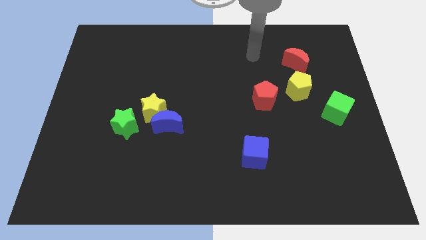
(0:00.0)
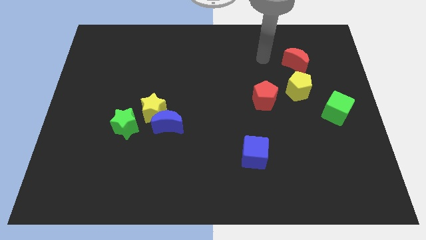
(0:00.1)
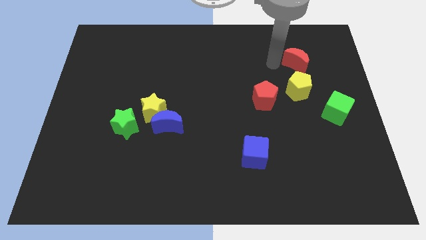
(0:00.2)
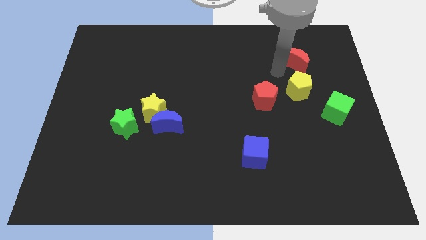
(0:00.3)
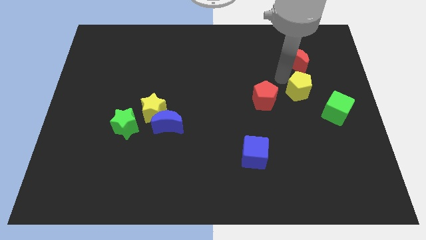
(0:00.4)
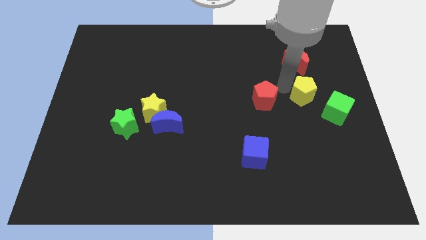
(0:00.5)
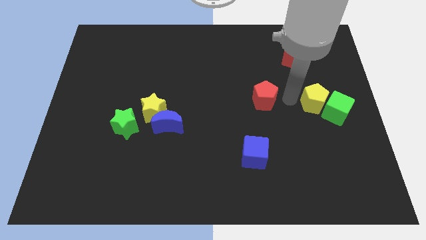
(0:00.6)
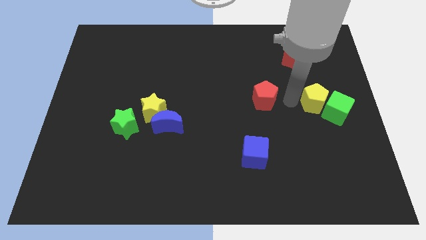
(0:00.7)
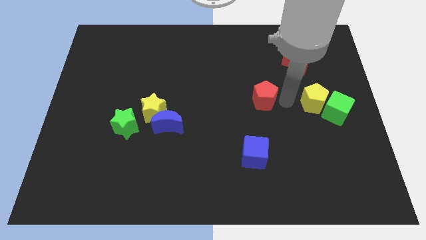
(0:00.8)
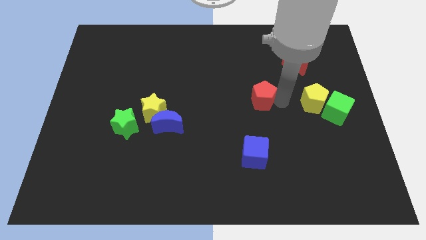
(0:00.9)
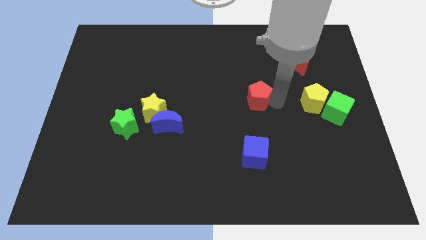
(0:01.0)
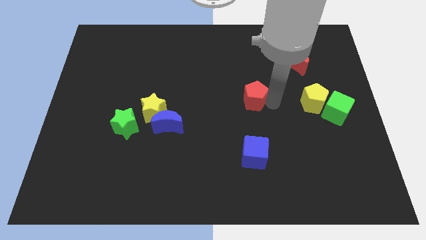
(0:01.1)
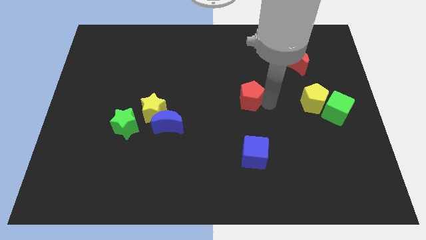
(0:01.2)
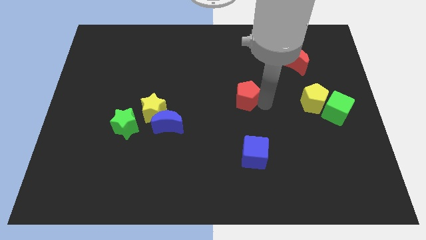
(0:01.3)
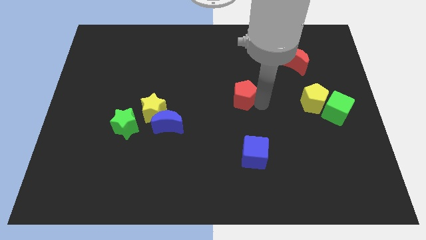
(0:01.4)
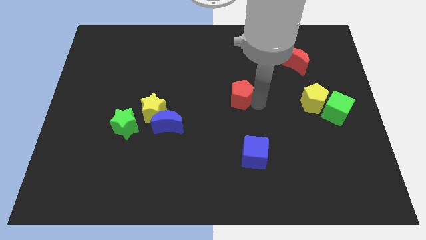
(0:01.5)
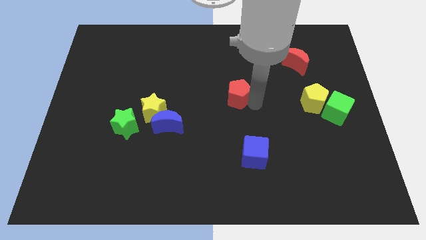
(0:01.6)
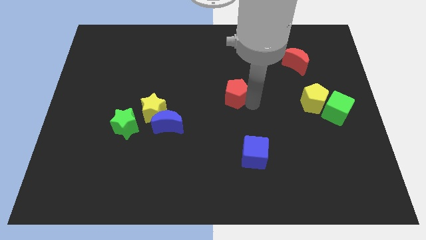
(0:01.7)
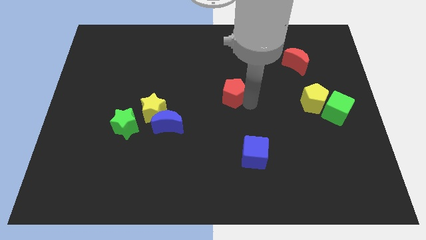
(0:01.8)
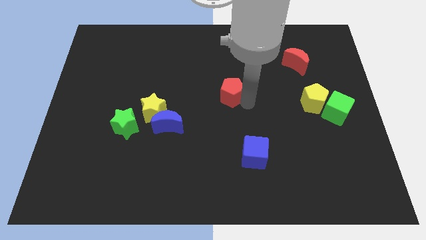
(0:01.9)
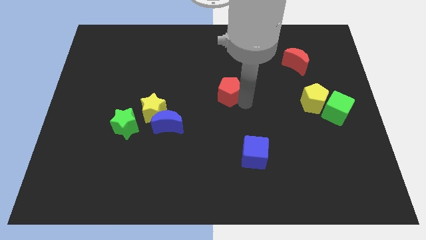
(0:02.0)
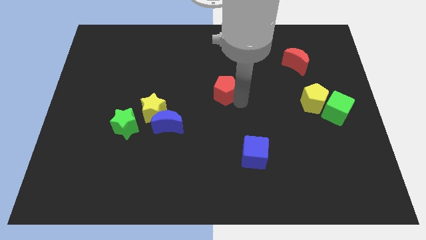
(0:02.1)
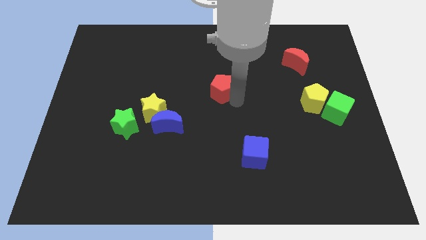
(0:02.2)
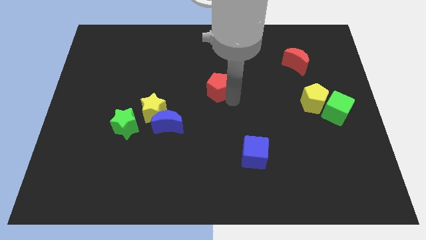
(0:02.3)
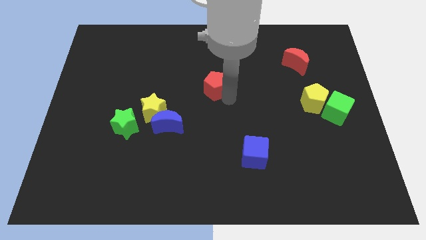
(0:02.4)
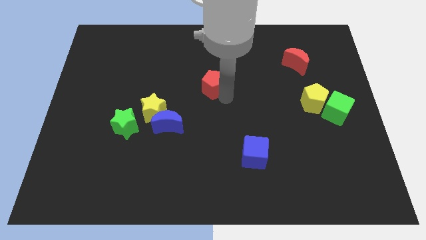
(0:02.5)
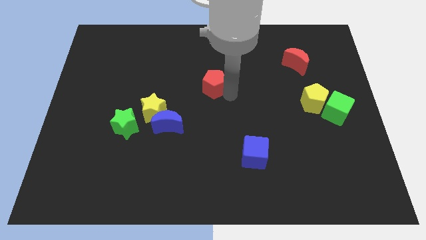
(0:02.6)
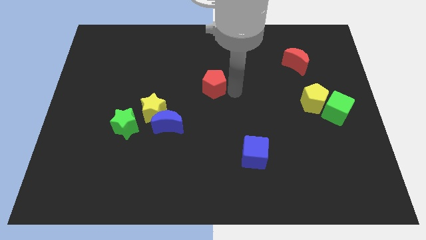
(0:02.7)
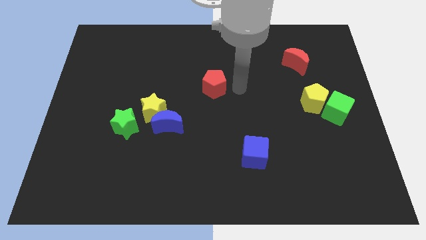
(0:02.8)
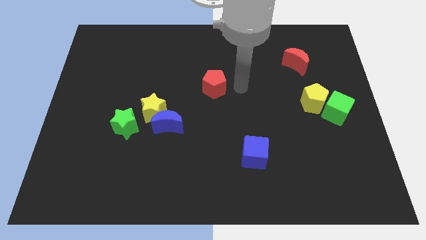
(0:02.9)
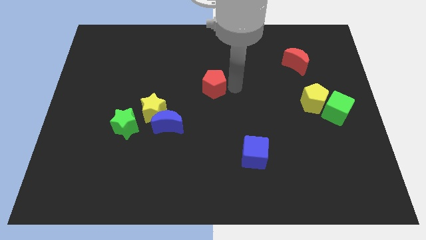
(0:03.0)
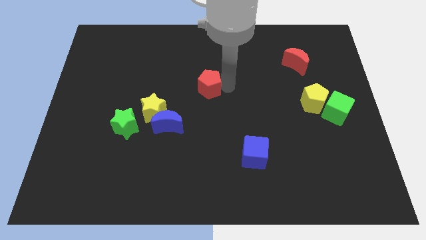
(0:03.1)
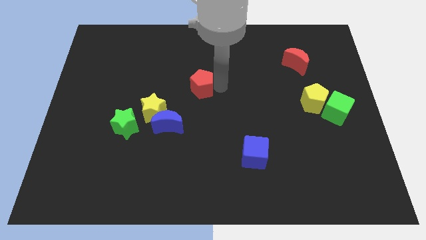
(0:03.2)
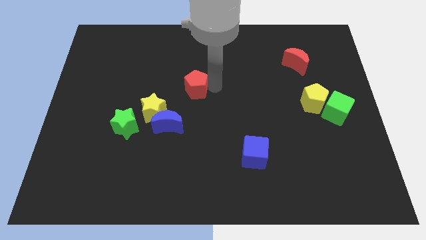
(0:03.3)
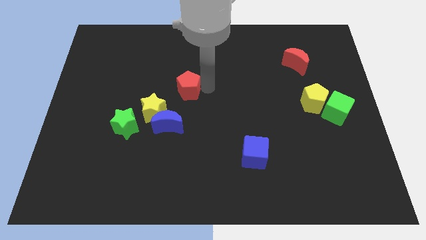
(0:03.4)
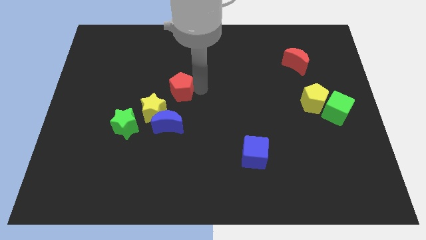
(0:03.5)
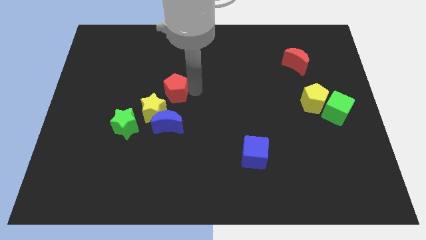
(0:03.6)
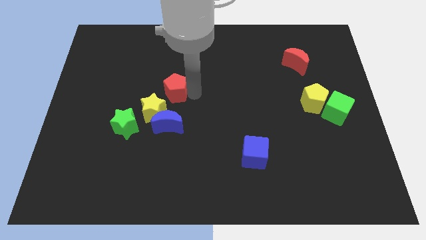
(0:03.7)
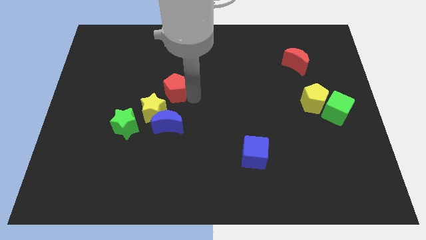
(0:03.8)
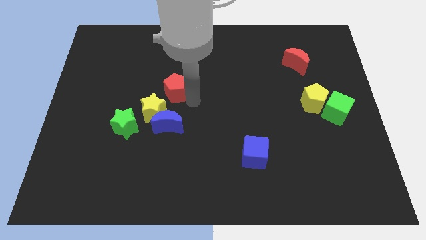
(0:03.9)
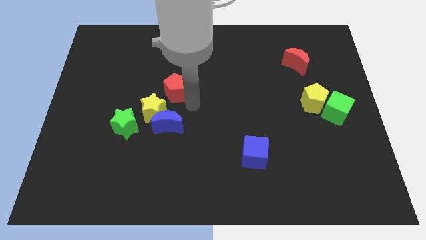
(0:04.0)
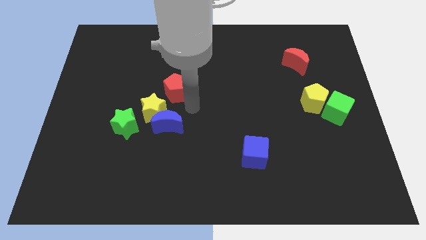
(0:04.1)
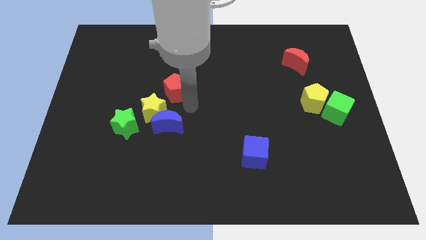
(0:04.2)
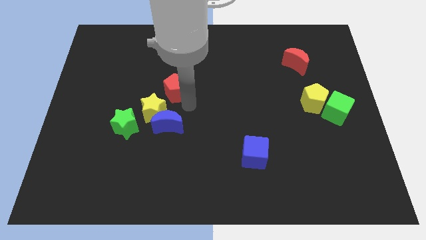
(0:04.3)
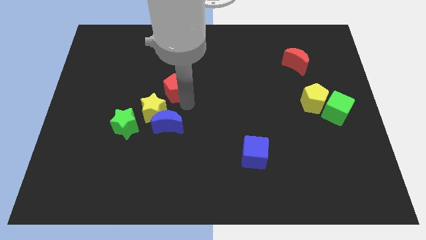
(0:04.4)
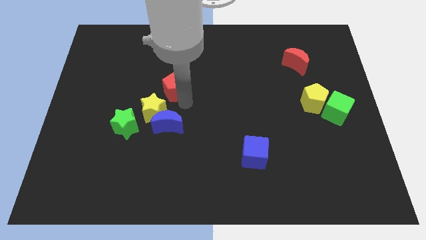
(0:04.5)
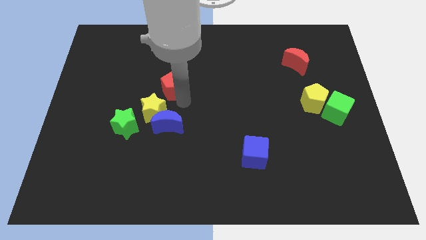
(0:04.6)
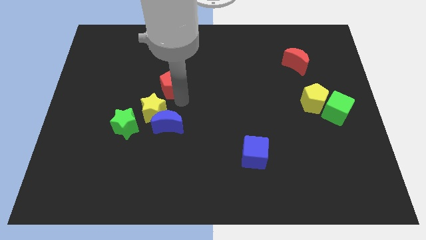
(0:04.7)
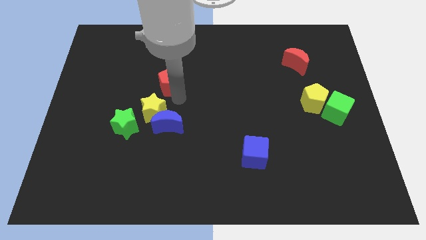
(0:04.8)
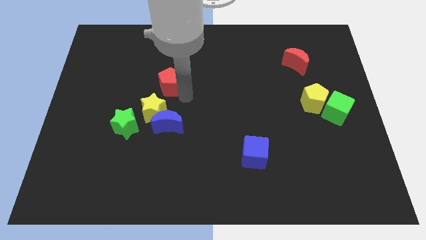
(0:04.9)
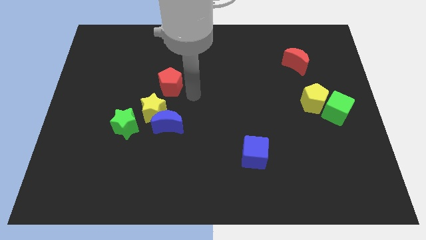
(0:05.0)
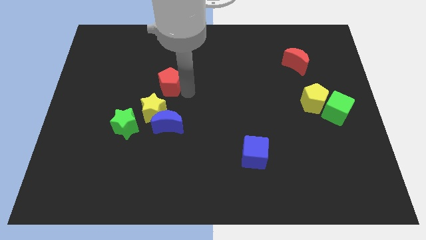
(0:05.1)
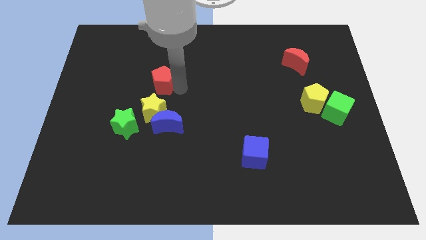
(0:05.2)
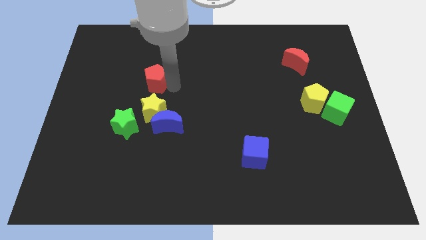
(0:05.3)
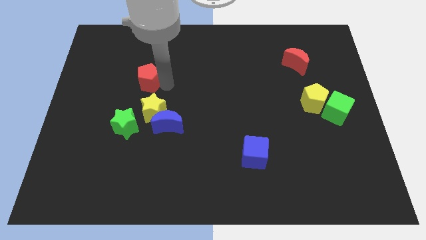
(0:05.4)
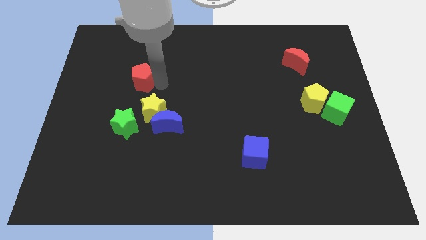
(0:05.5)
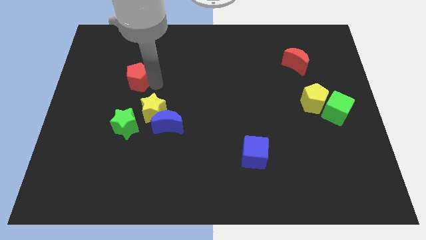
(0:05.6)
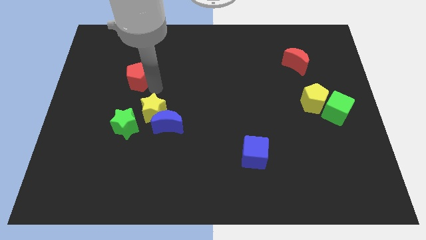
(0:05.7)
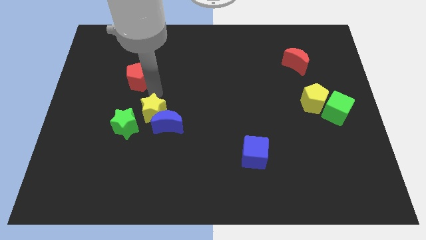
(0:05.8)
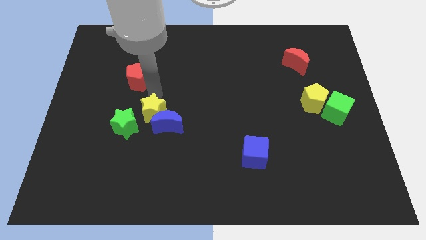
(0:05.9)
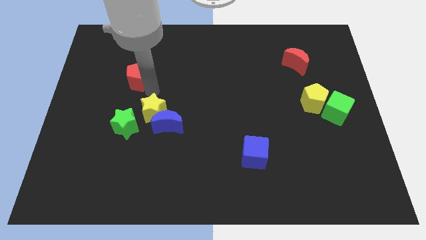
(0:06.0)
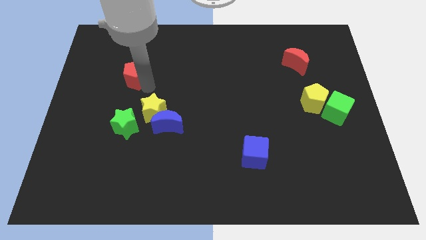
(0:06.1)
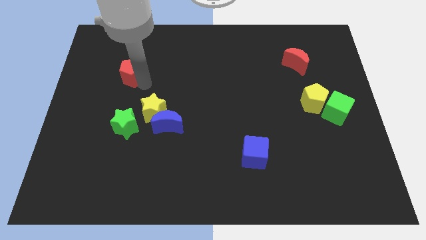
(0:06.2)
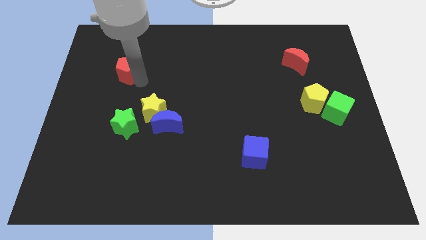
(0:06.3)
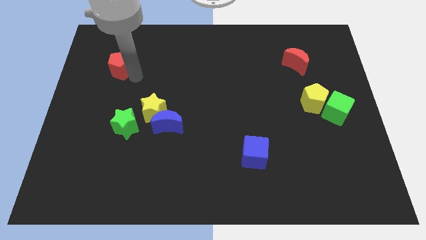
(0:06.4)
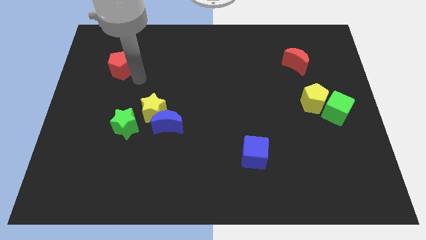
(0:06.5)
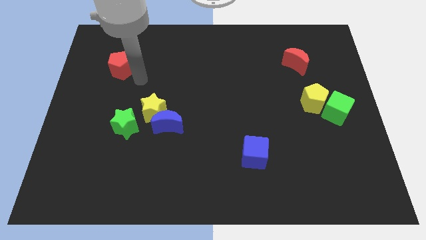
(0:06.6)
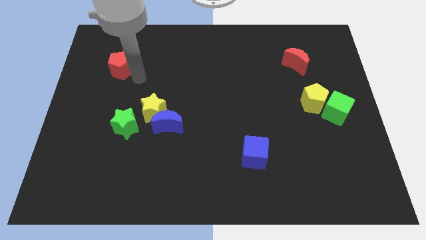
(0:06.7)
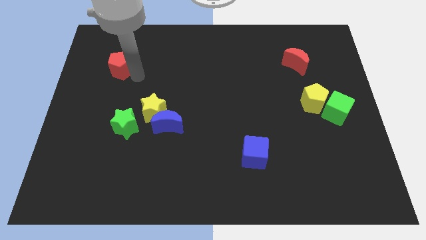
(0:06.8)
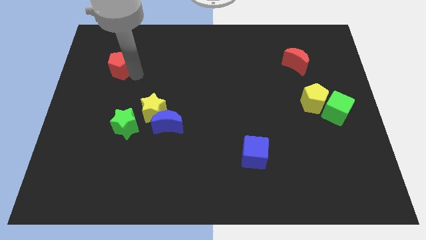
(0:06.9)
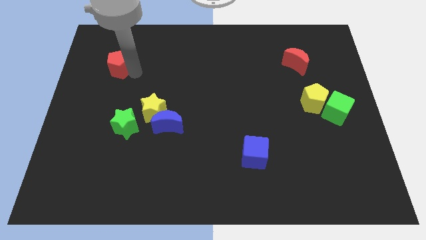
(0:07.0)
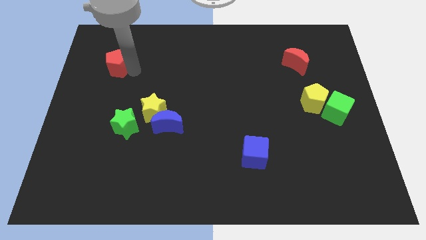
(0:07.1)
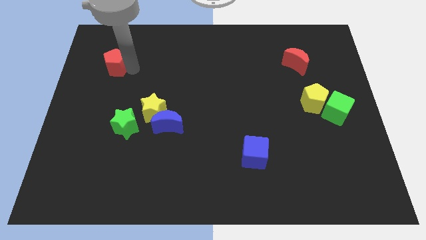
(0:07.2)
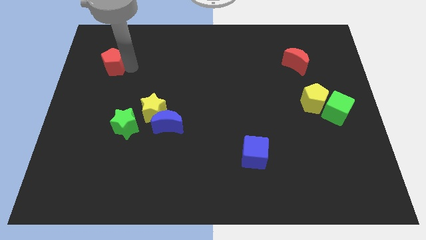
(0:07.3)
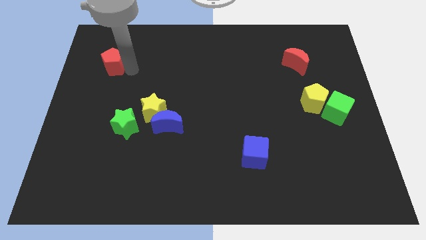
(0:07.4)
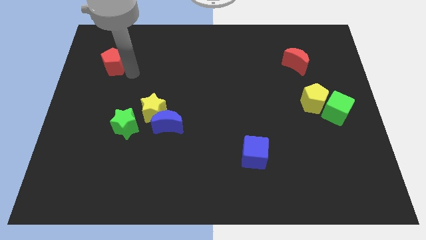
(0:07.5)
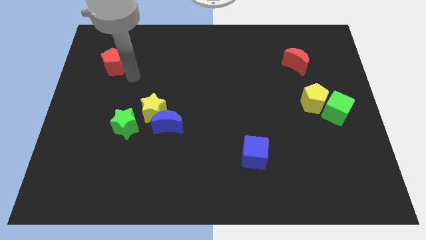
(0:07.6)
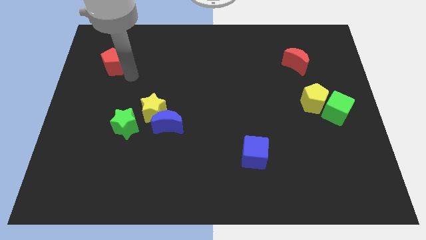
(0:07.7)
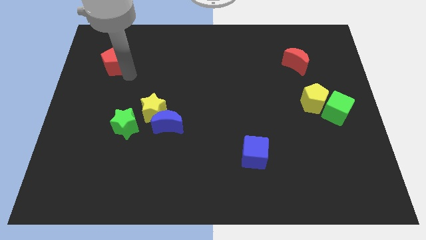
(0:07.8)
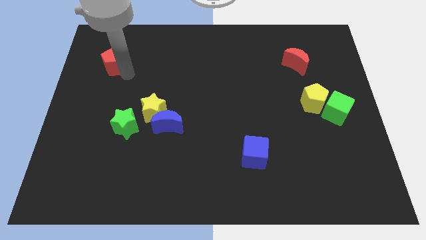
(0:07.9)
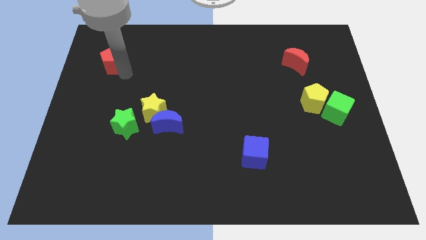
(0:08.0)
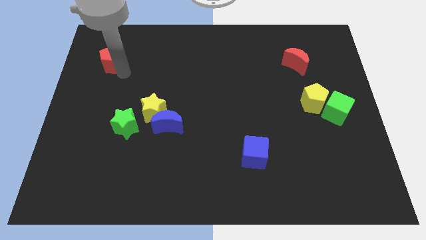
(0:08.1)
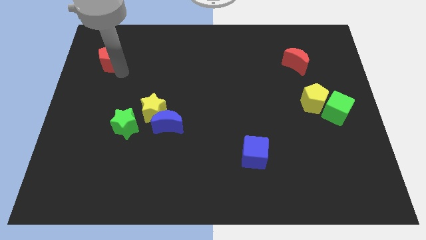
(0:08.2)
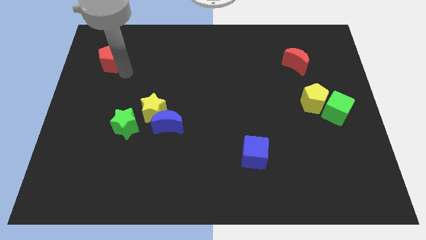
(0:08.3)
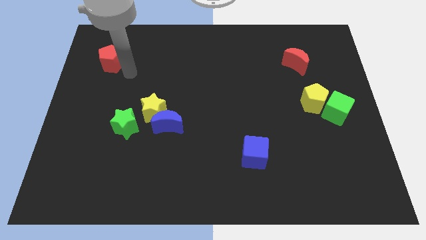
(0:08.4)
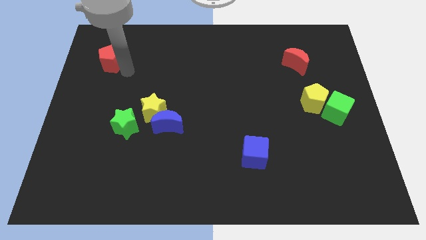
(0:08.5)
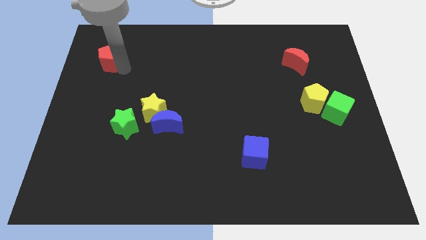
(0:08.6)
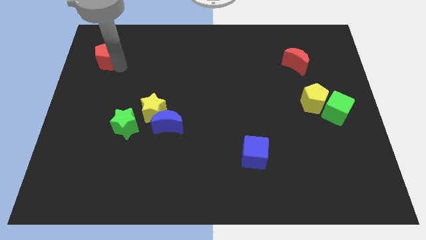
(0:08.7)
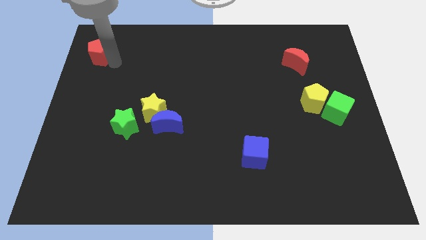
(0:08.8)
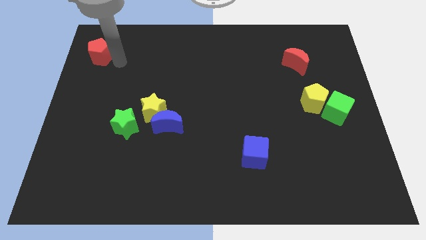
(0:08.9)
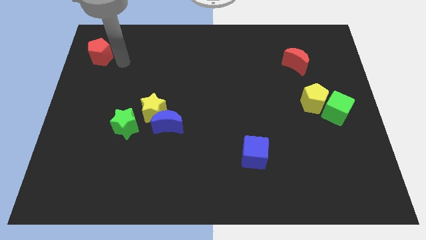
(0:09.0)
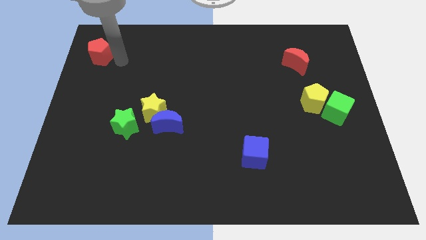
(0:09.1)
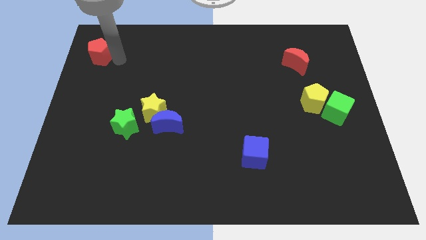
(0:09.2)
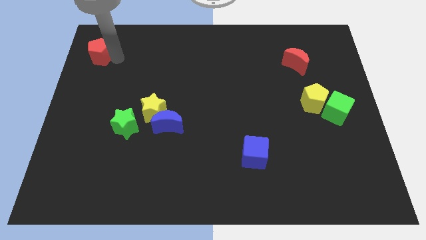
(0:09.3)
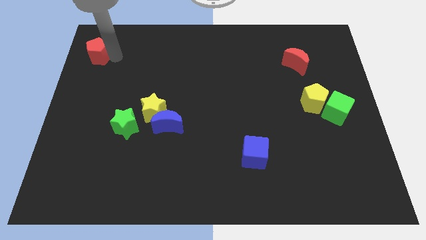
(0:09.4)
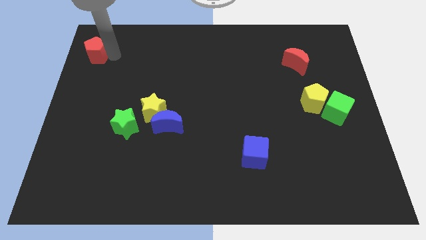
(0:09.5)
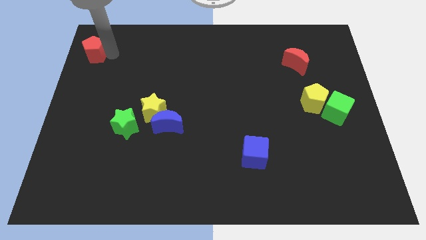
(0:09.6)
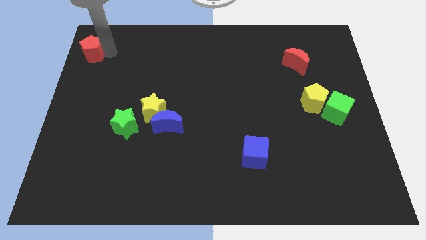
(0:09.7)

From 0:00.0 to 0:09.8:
slide the red pentagon to the top left
